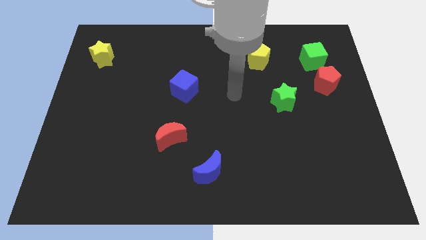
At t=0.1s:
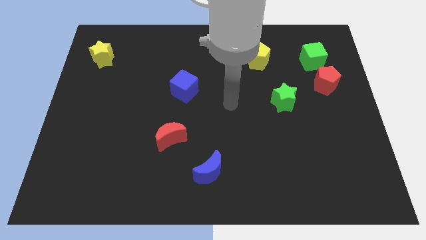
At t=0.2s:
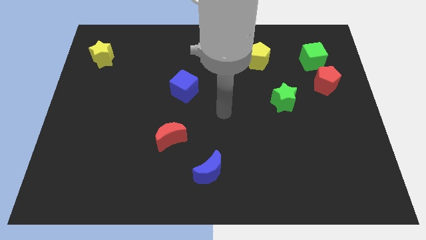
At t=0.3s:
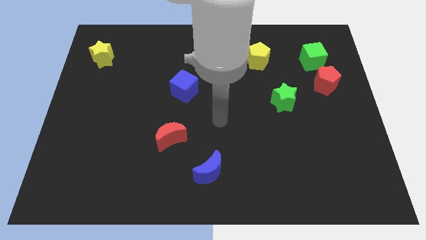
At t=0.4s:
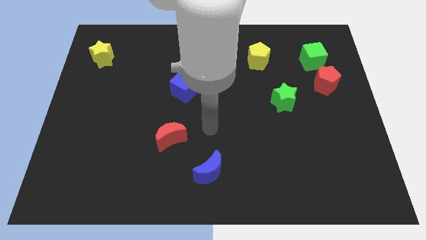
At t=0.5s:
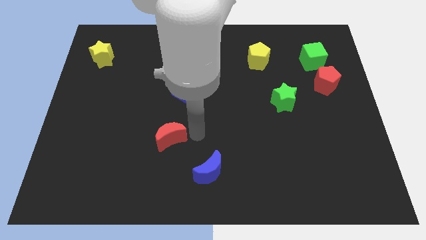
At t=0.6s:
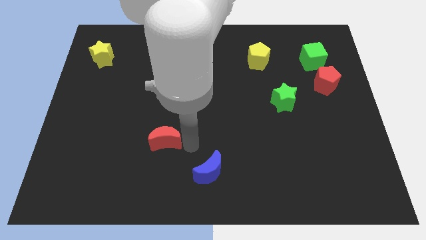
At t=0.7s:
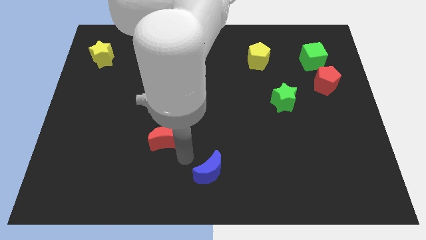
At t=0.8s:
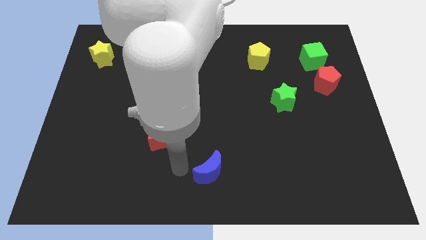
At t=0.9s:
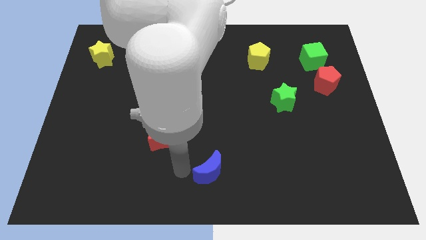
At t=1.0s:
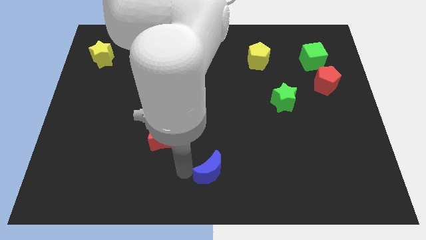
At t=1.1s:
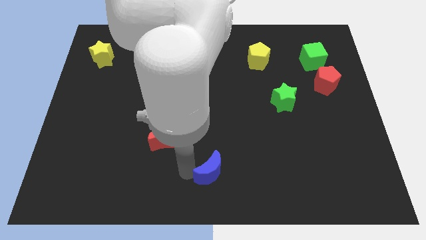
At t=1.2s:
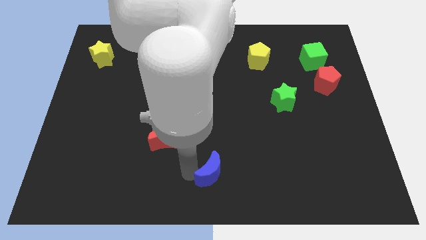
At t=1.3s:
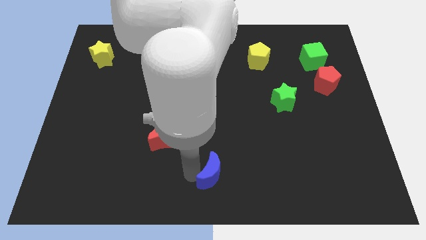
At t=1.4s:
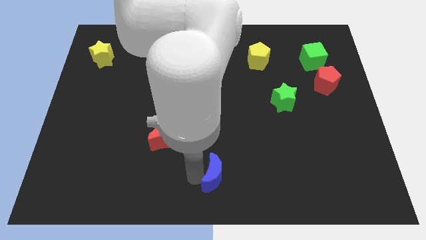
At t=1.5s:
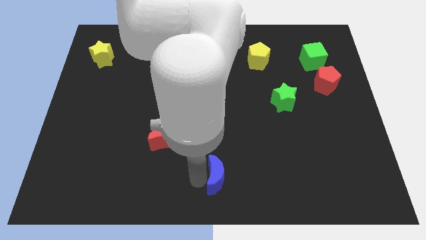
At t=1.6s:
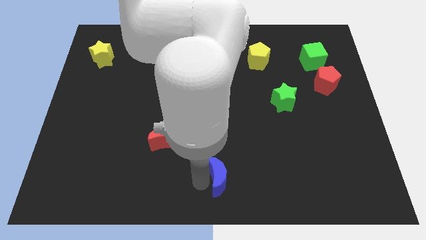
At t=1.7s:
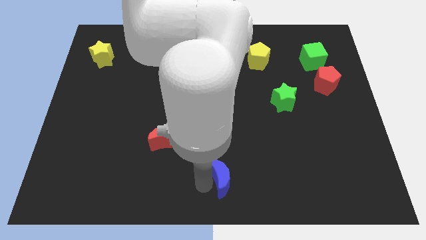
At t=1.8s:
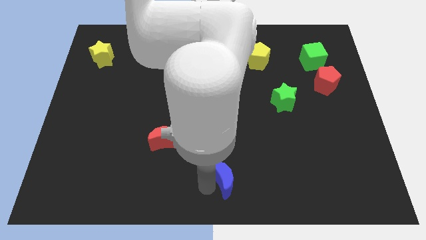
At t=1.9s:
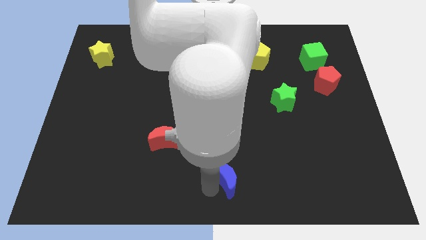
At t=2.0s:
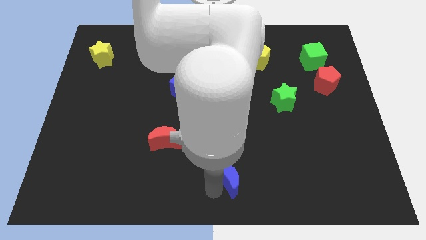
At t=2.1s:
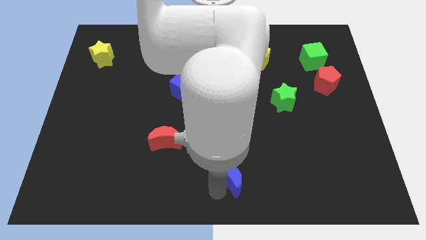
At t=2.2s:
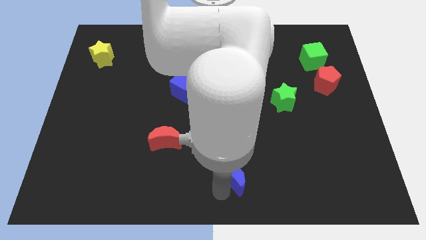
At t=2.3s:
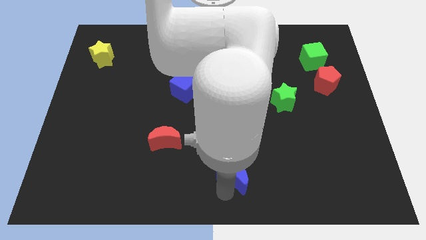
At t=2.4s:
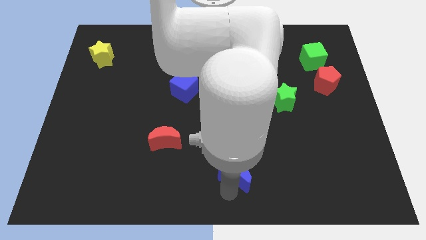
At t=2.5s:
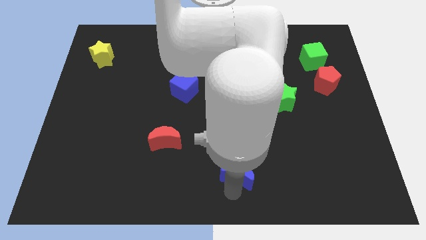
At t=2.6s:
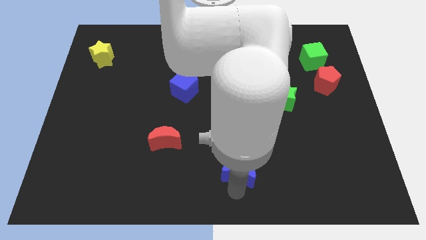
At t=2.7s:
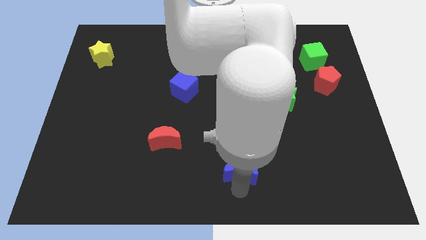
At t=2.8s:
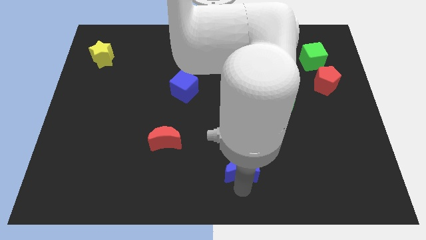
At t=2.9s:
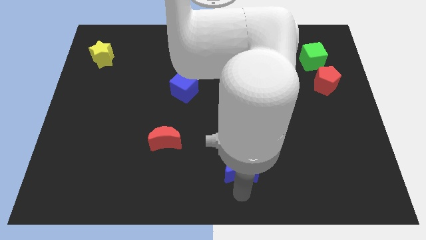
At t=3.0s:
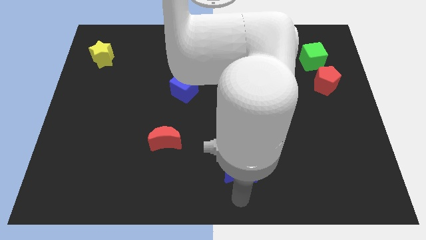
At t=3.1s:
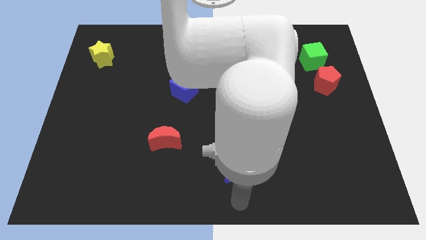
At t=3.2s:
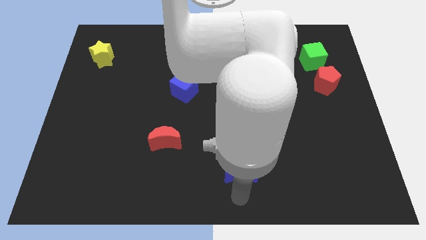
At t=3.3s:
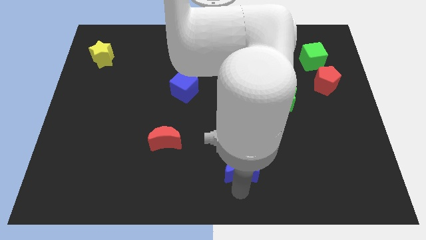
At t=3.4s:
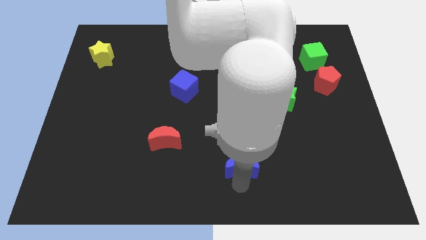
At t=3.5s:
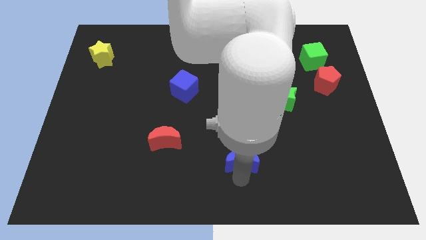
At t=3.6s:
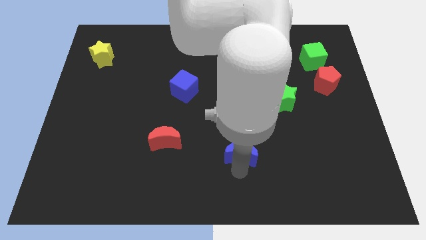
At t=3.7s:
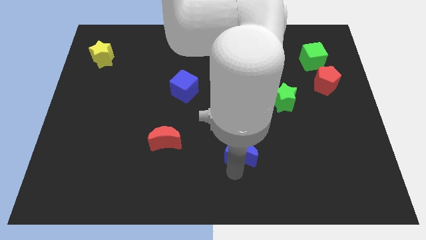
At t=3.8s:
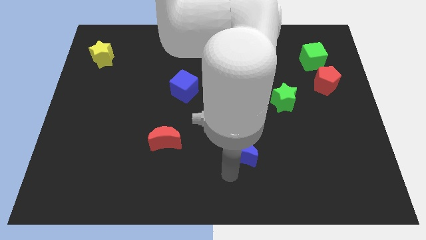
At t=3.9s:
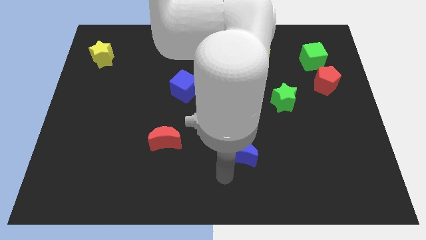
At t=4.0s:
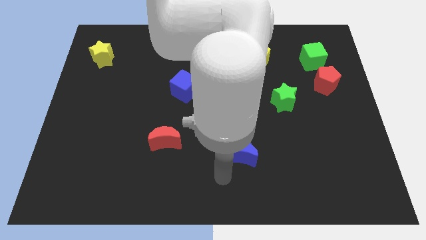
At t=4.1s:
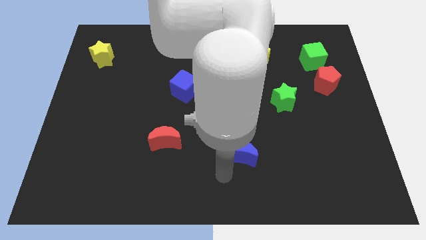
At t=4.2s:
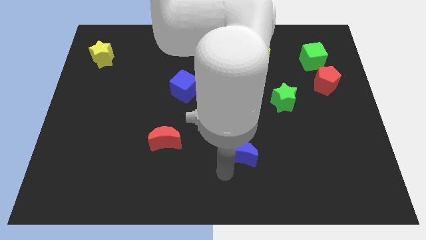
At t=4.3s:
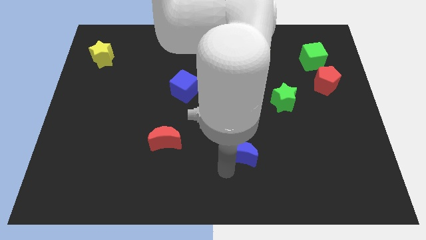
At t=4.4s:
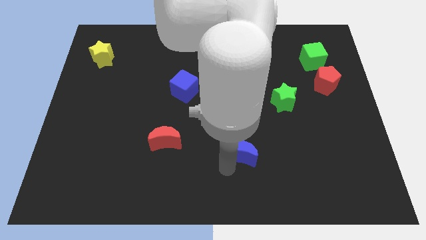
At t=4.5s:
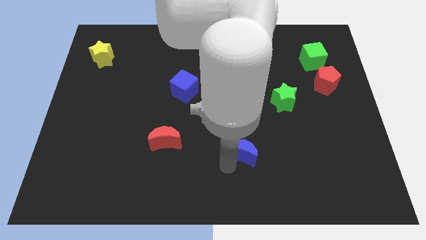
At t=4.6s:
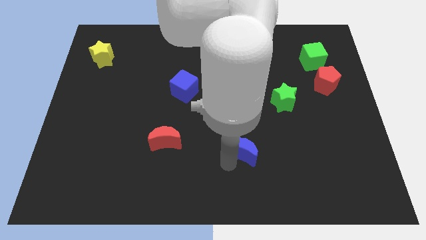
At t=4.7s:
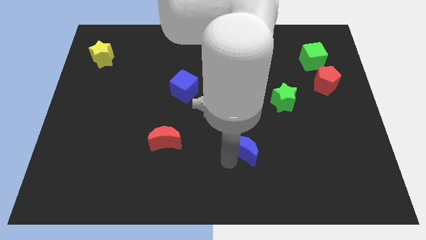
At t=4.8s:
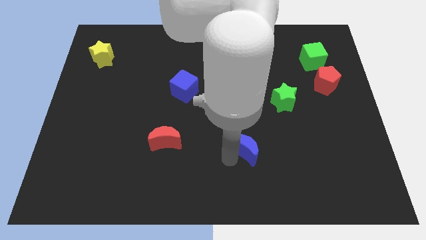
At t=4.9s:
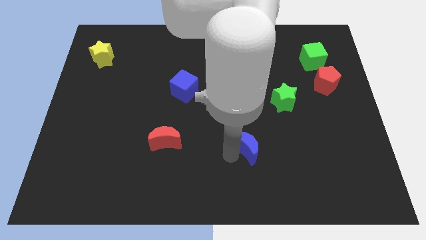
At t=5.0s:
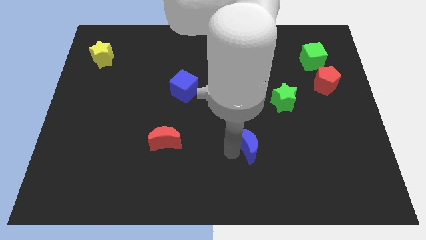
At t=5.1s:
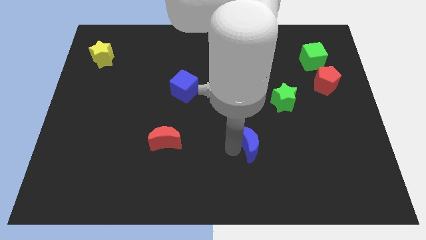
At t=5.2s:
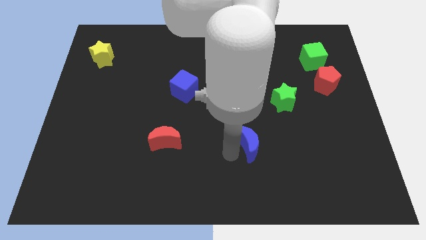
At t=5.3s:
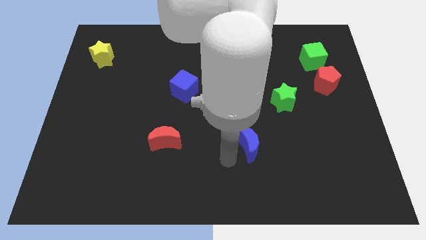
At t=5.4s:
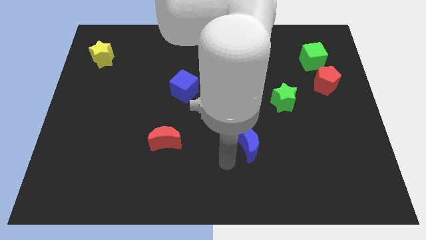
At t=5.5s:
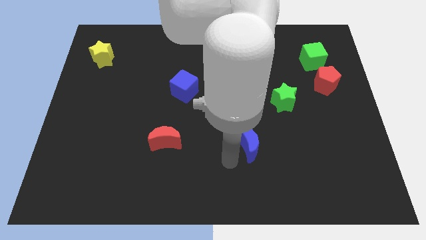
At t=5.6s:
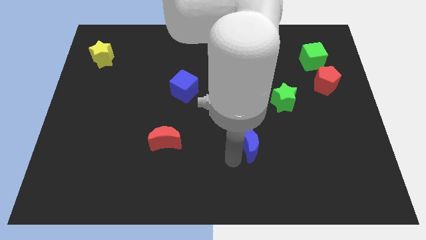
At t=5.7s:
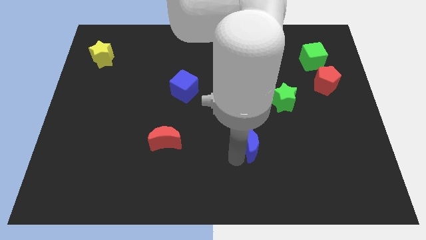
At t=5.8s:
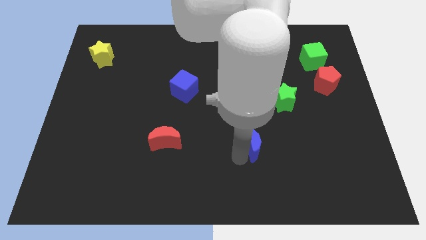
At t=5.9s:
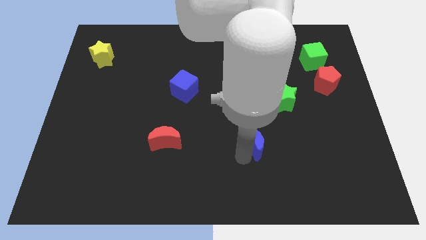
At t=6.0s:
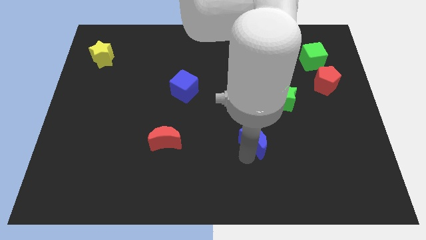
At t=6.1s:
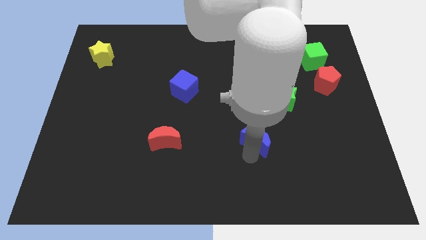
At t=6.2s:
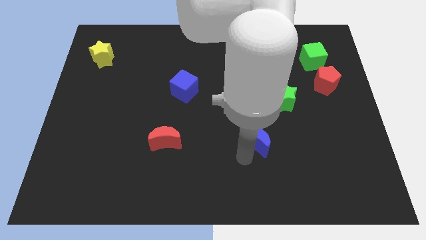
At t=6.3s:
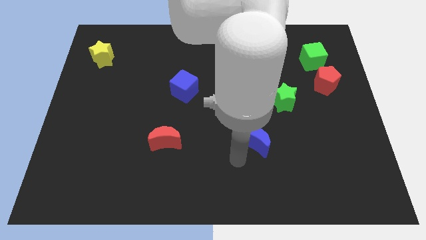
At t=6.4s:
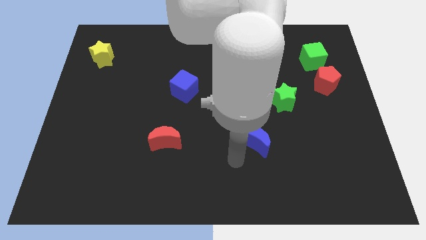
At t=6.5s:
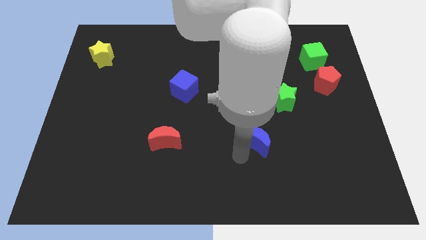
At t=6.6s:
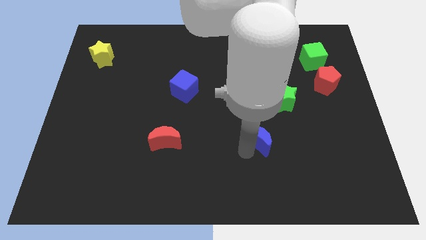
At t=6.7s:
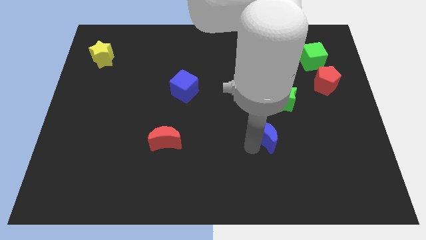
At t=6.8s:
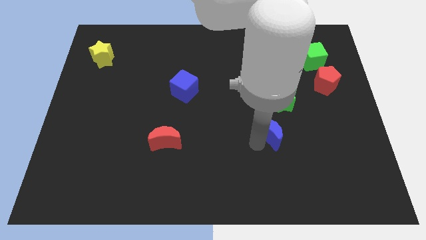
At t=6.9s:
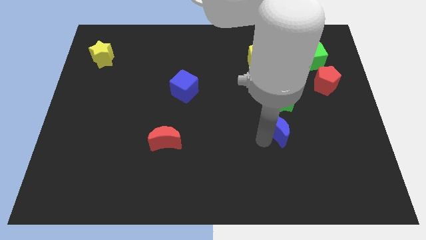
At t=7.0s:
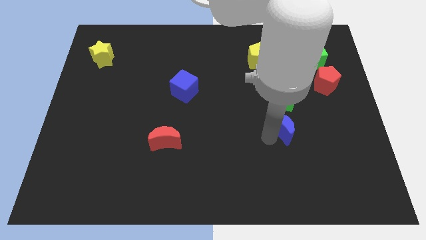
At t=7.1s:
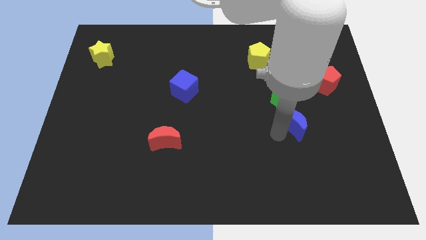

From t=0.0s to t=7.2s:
slide the blue moon diagonally upwards and to the right

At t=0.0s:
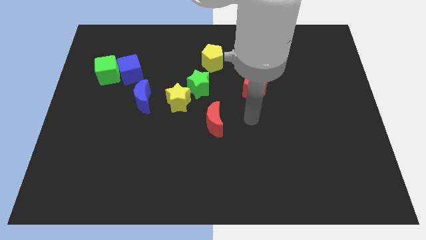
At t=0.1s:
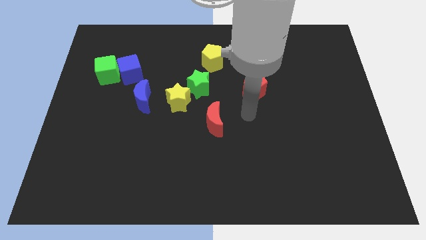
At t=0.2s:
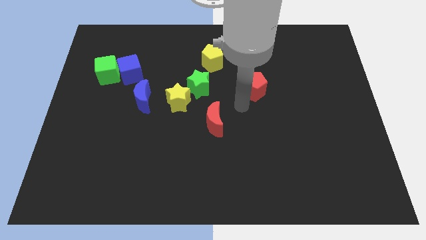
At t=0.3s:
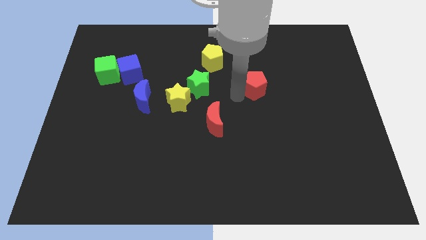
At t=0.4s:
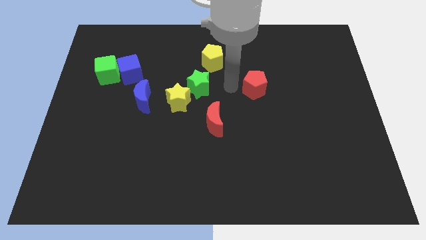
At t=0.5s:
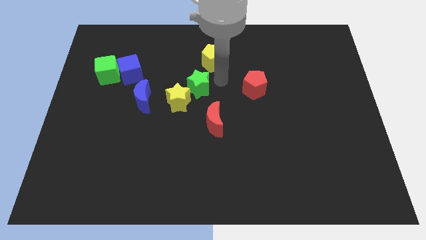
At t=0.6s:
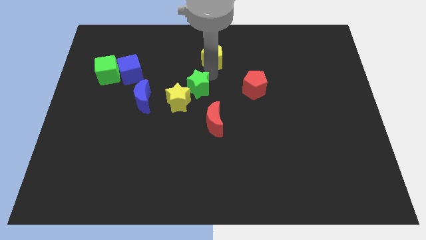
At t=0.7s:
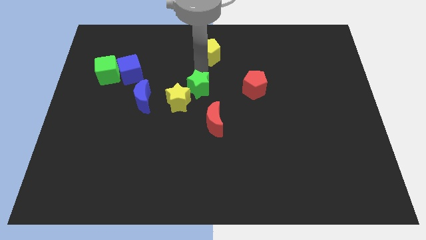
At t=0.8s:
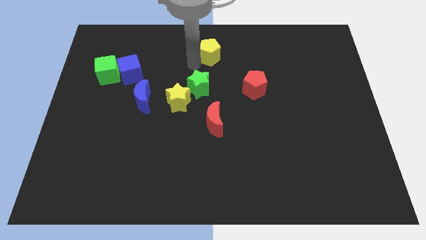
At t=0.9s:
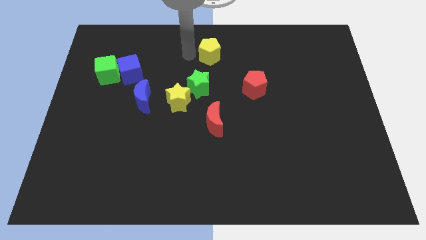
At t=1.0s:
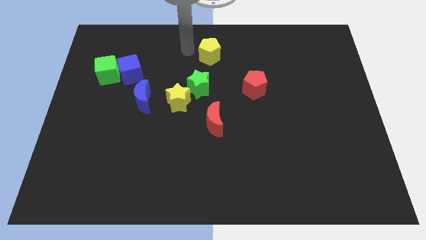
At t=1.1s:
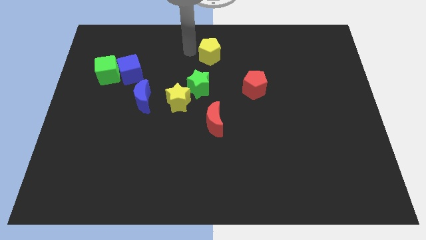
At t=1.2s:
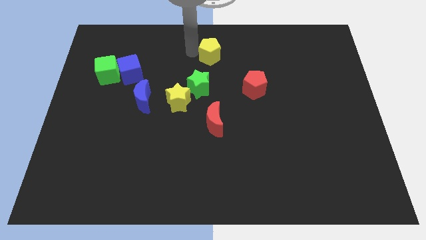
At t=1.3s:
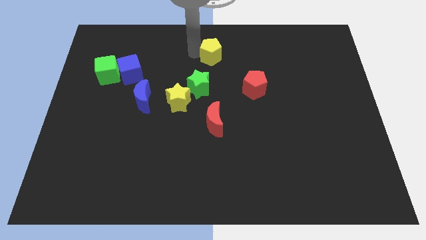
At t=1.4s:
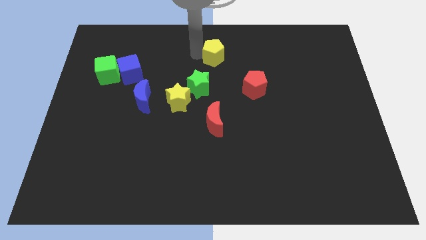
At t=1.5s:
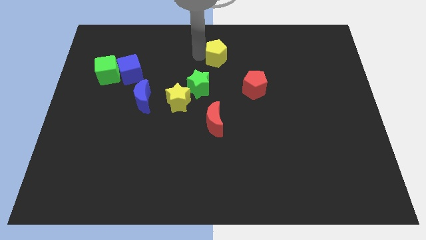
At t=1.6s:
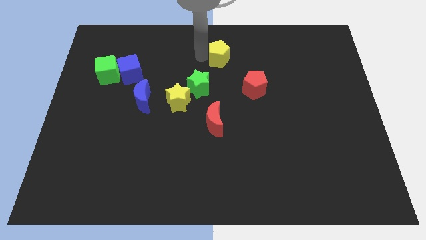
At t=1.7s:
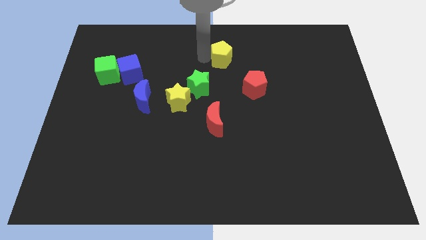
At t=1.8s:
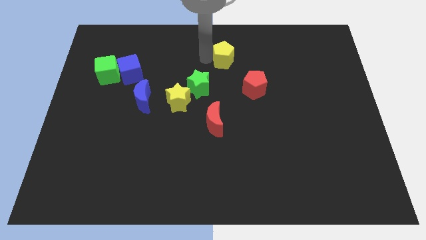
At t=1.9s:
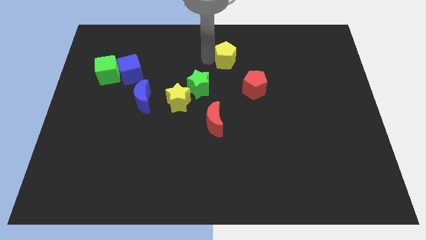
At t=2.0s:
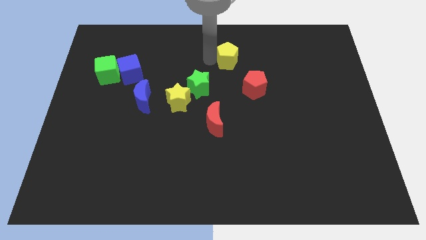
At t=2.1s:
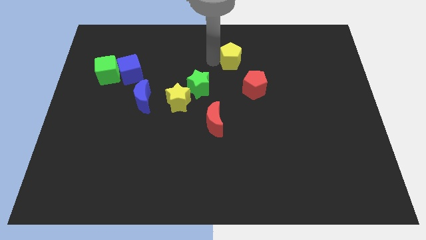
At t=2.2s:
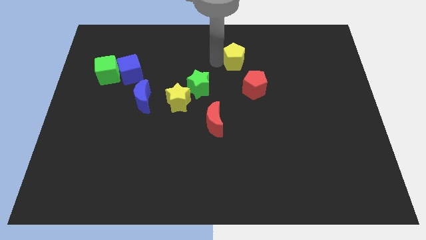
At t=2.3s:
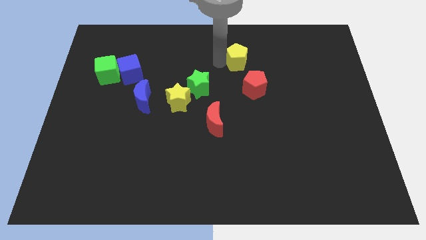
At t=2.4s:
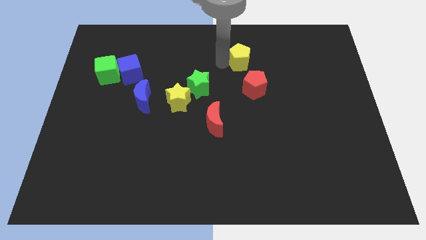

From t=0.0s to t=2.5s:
slightly push the yellow pentagon right
